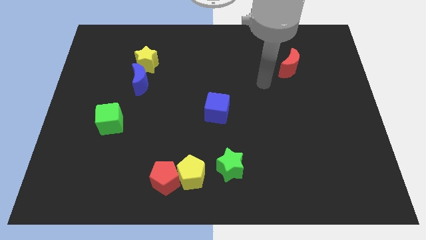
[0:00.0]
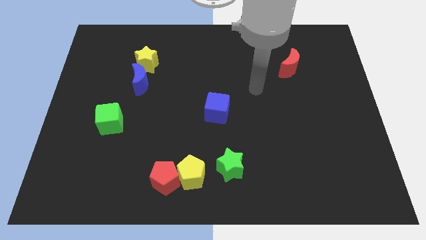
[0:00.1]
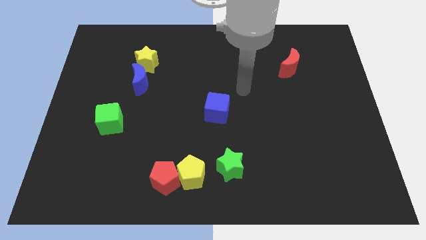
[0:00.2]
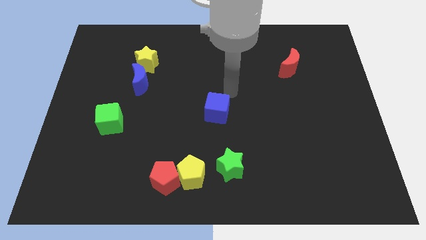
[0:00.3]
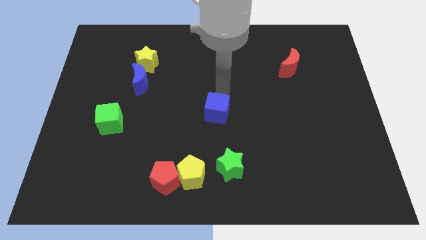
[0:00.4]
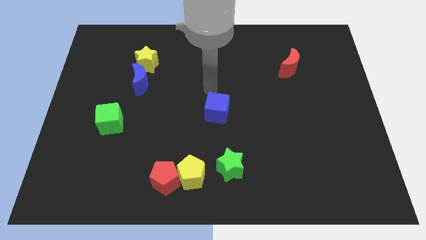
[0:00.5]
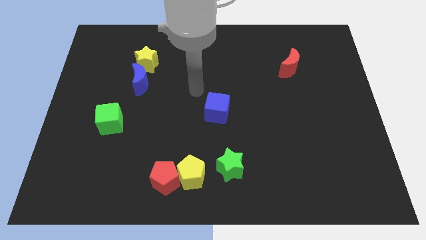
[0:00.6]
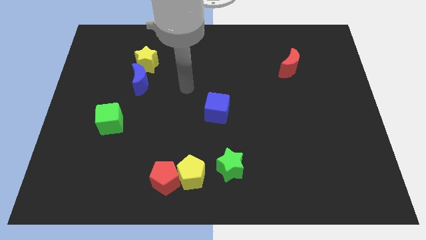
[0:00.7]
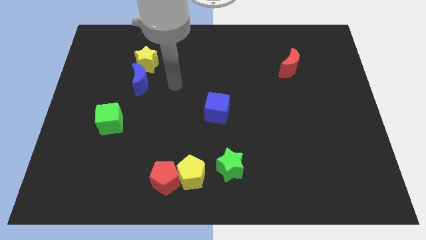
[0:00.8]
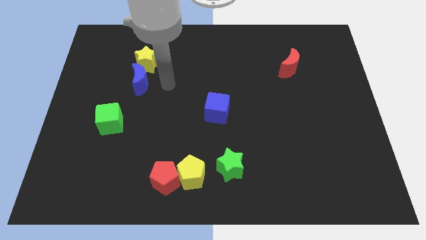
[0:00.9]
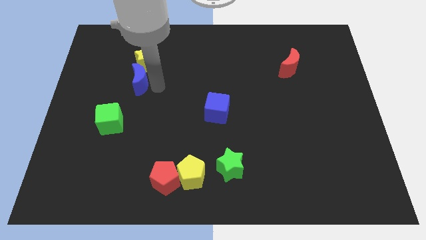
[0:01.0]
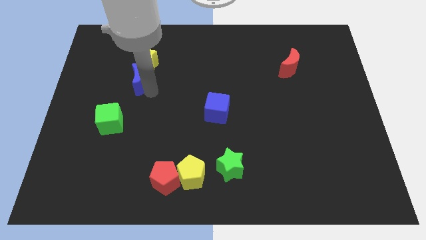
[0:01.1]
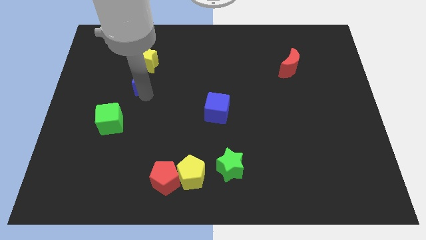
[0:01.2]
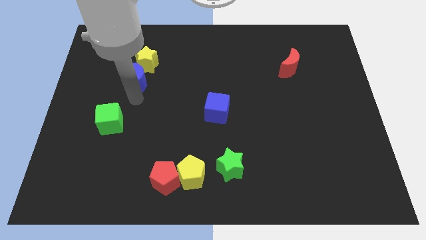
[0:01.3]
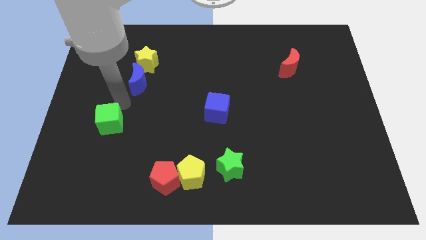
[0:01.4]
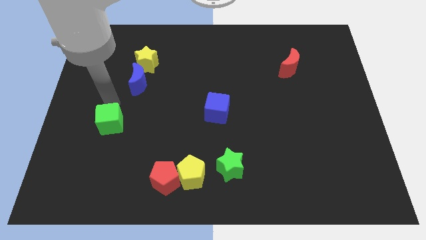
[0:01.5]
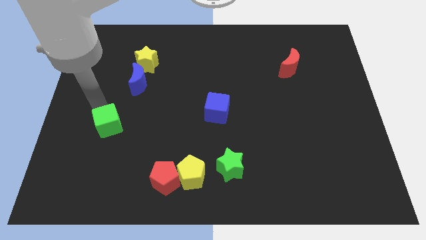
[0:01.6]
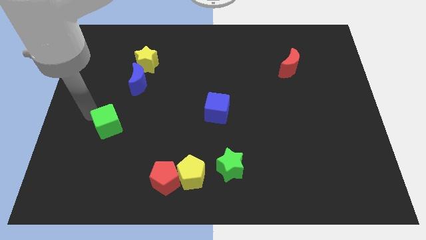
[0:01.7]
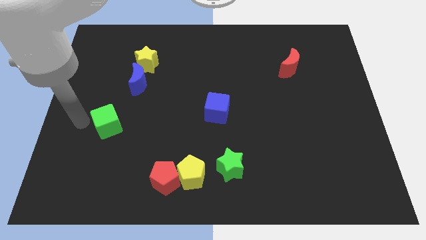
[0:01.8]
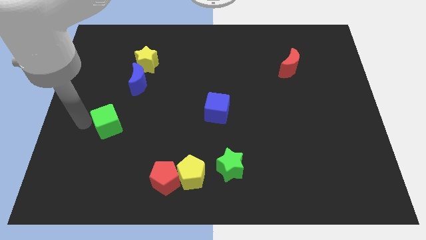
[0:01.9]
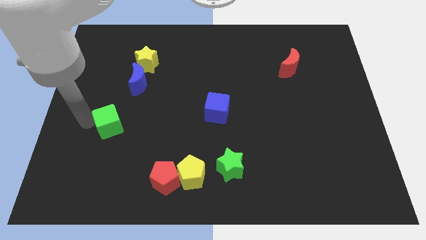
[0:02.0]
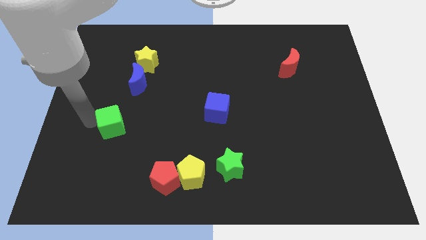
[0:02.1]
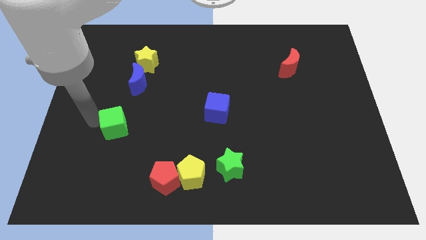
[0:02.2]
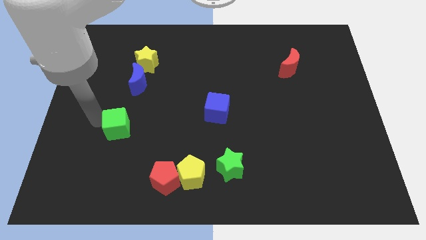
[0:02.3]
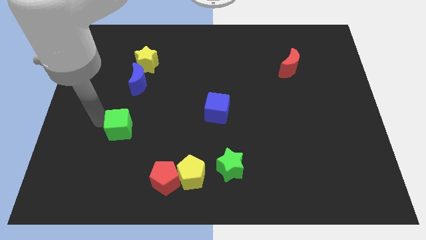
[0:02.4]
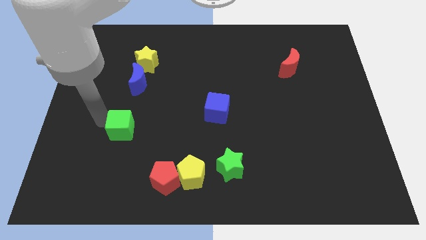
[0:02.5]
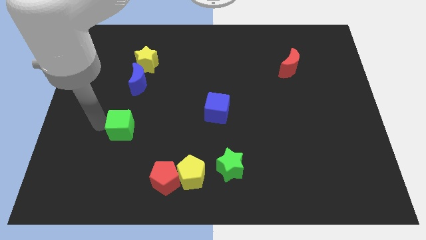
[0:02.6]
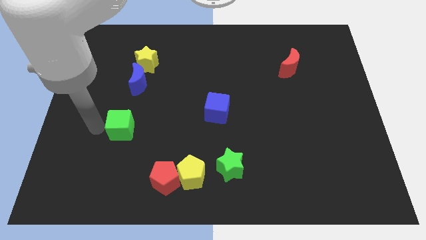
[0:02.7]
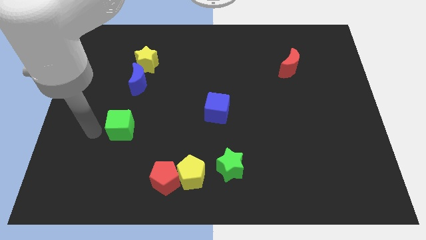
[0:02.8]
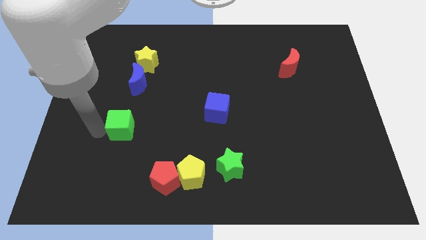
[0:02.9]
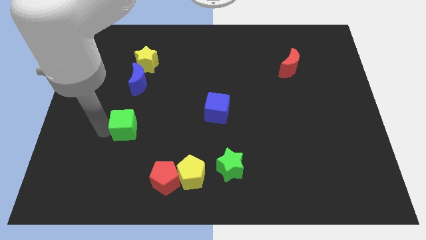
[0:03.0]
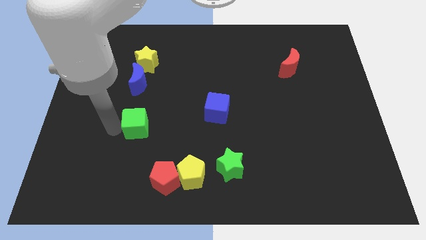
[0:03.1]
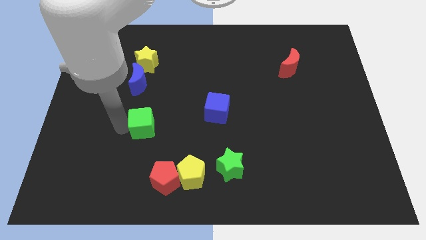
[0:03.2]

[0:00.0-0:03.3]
slide the green cube to the right somewhat

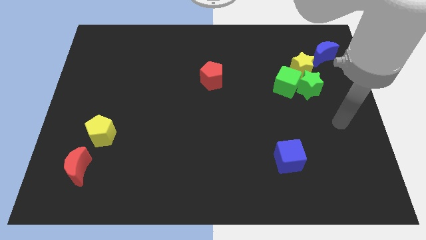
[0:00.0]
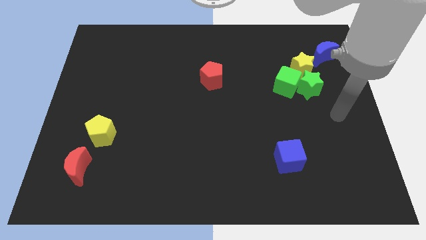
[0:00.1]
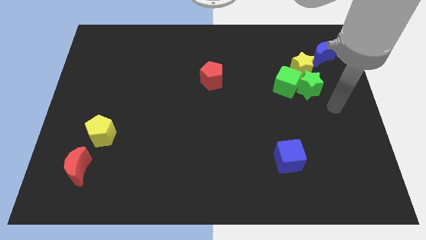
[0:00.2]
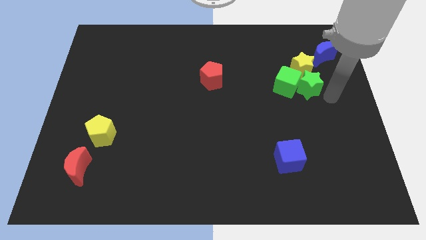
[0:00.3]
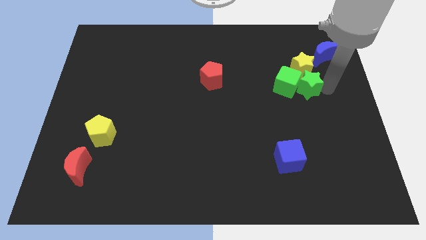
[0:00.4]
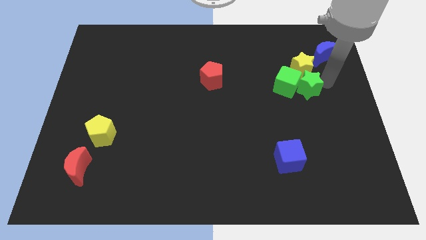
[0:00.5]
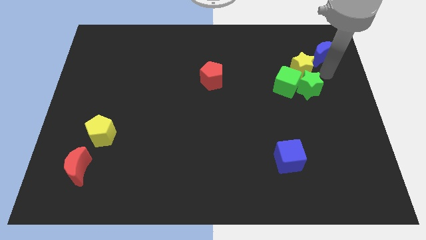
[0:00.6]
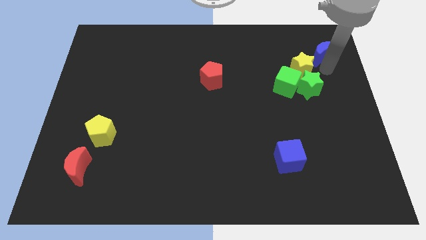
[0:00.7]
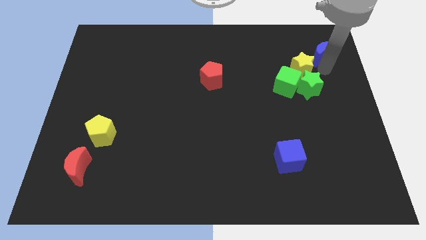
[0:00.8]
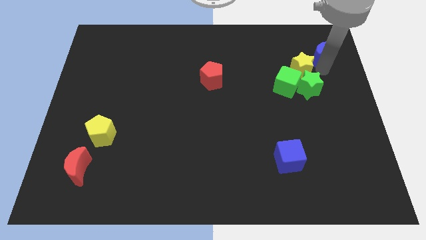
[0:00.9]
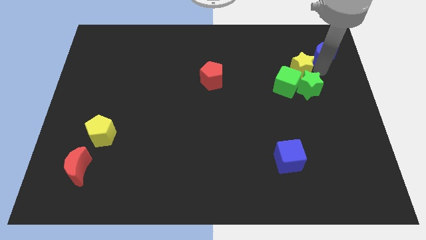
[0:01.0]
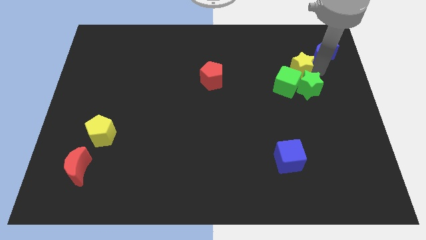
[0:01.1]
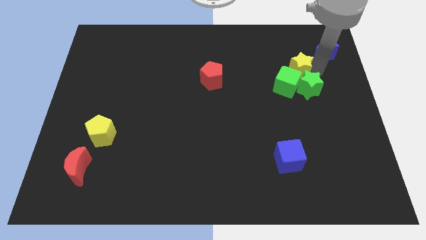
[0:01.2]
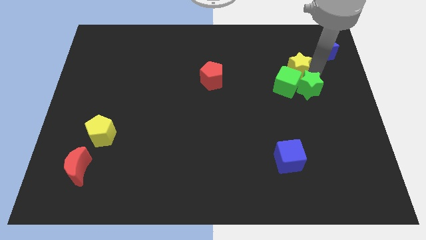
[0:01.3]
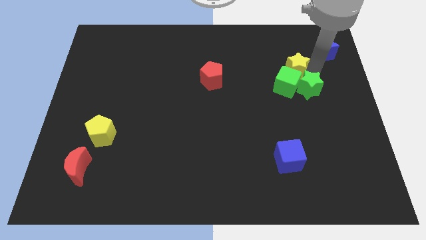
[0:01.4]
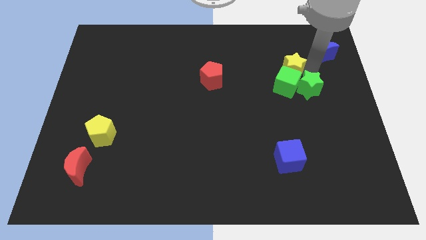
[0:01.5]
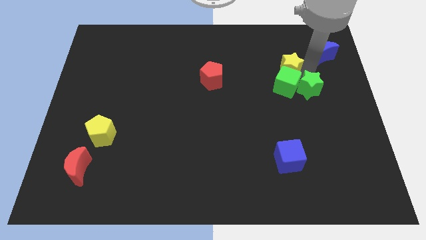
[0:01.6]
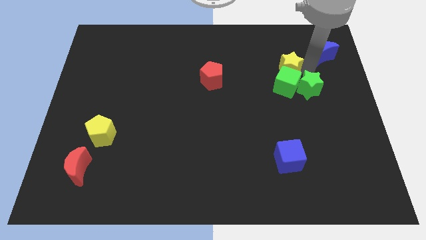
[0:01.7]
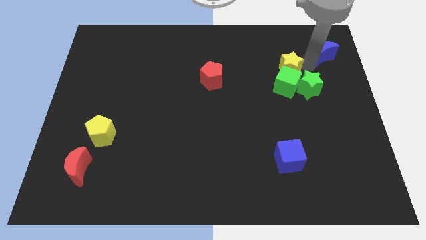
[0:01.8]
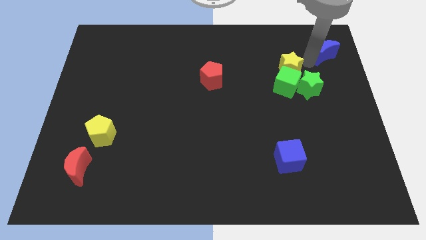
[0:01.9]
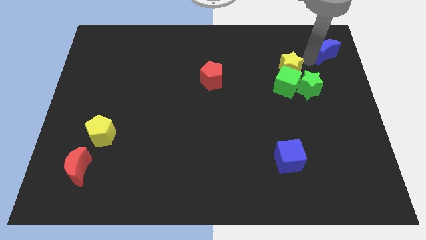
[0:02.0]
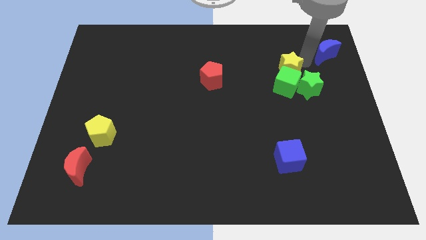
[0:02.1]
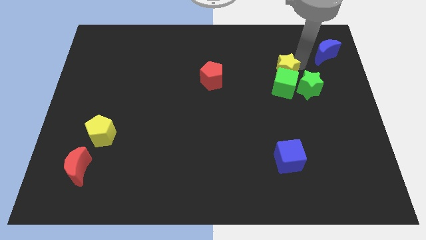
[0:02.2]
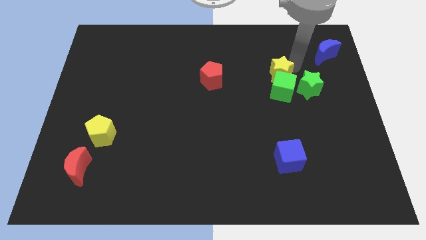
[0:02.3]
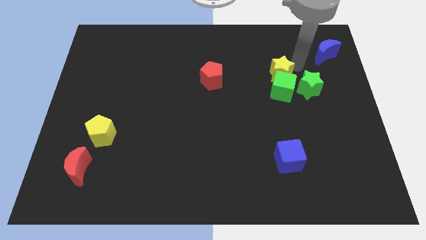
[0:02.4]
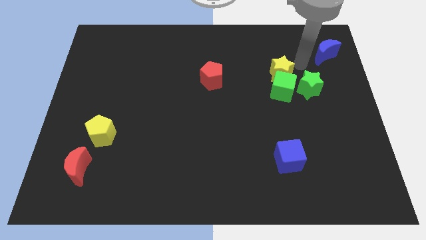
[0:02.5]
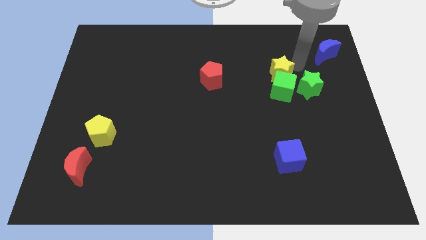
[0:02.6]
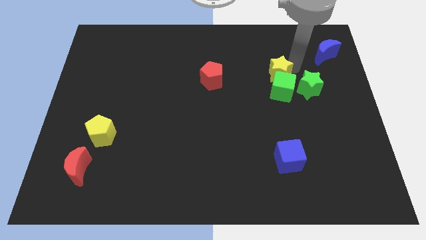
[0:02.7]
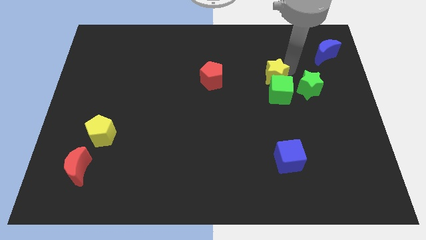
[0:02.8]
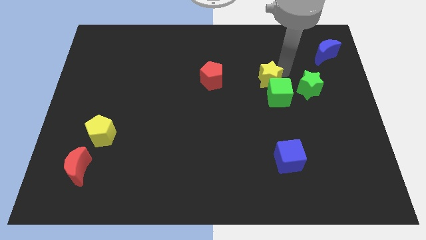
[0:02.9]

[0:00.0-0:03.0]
push the yellow star somewhat downwards and left

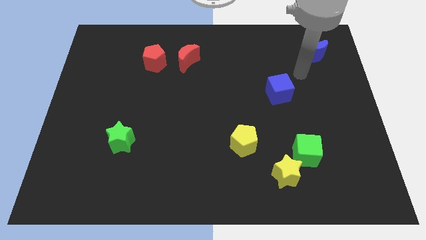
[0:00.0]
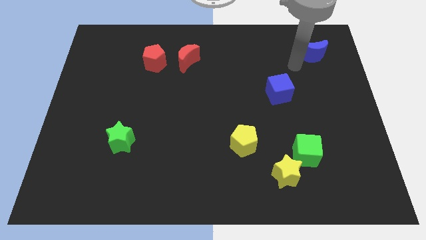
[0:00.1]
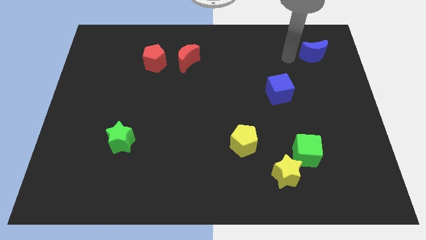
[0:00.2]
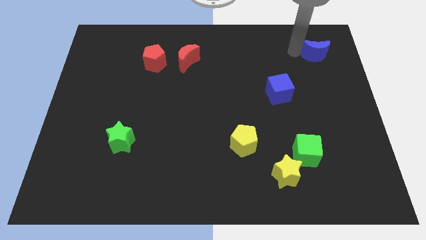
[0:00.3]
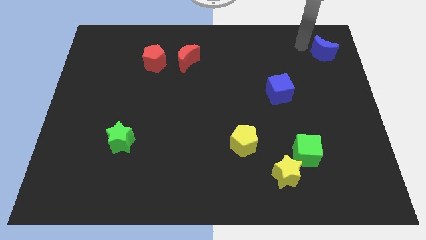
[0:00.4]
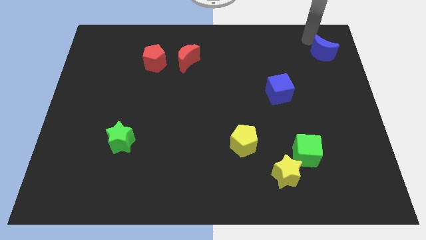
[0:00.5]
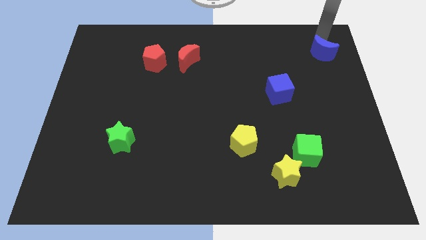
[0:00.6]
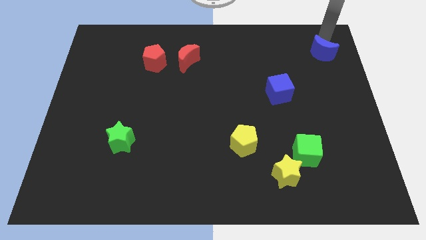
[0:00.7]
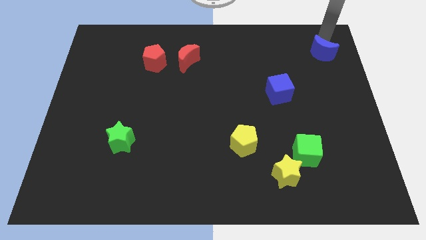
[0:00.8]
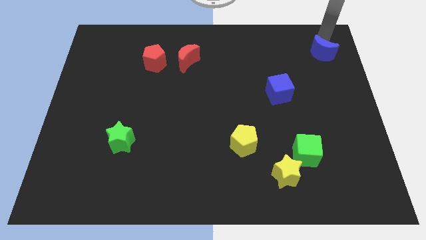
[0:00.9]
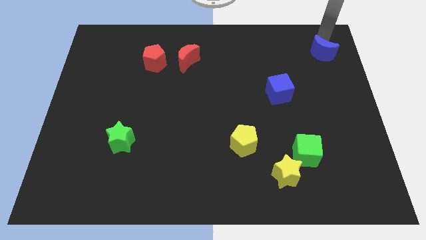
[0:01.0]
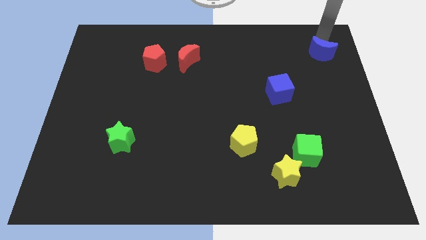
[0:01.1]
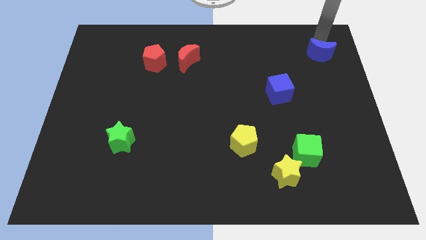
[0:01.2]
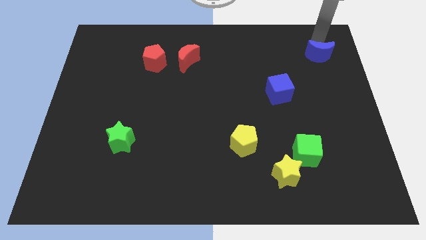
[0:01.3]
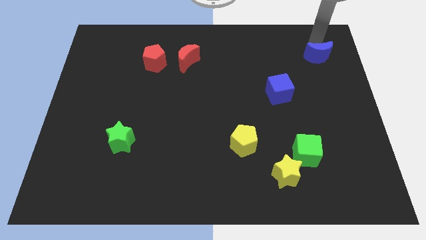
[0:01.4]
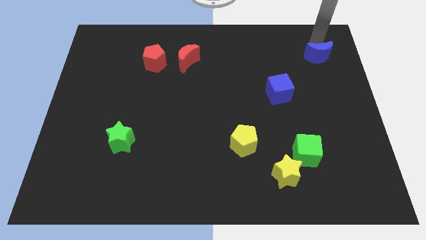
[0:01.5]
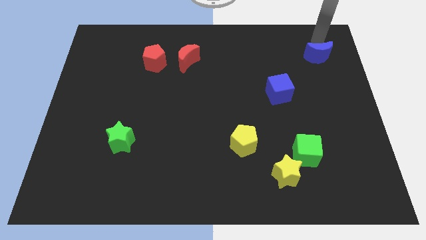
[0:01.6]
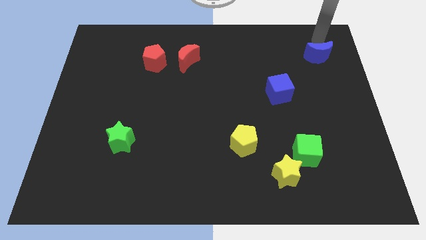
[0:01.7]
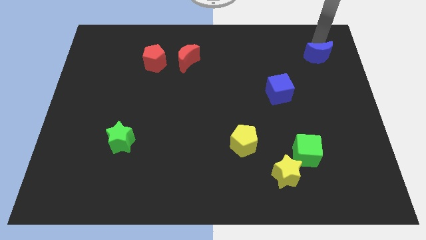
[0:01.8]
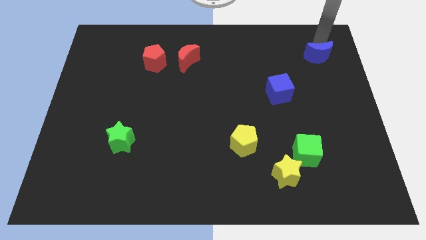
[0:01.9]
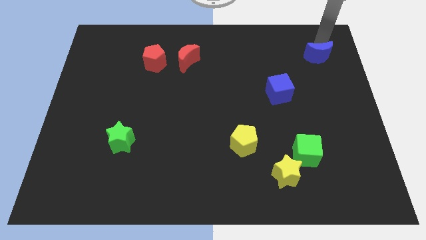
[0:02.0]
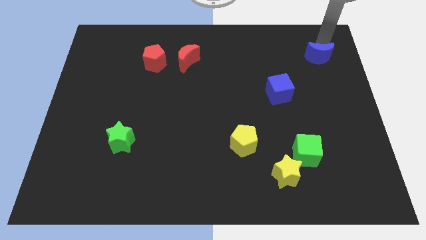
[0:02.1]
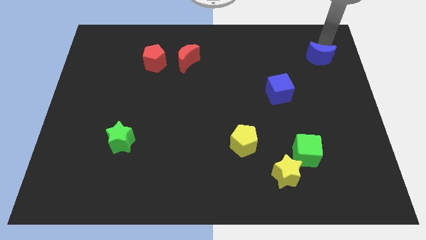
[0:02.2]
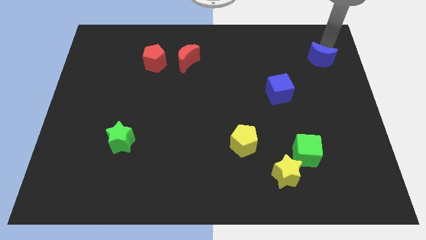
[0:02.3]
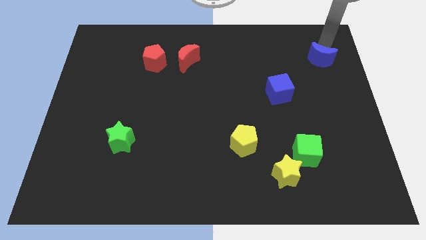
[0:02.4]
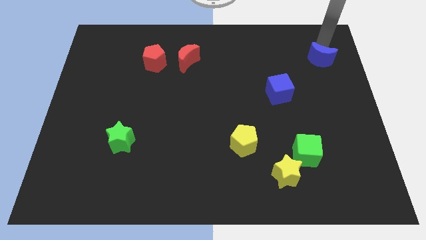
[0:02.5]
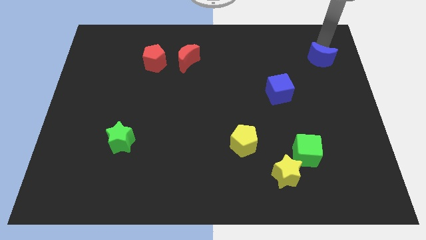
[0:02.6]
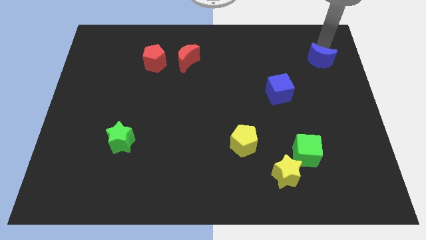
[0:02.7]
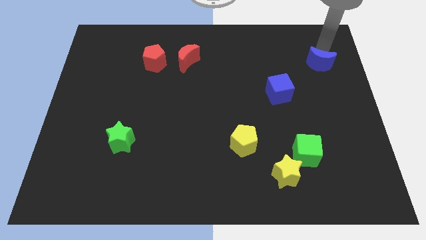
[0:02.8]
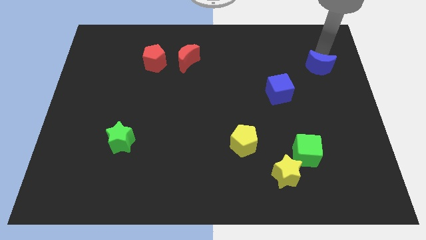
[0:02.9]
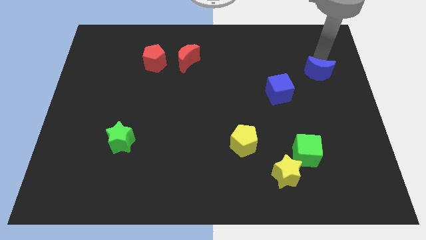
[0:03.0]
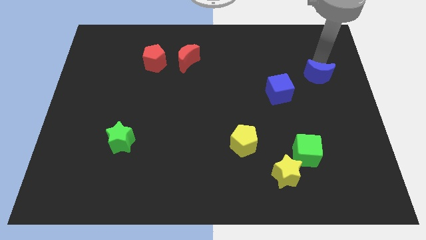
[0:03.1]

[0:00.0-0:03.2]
slightly slide the blue moon down
